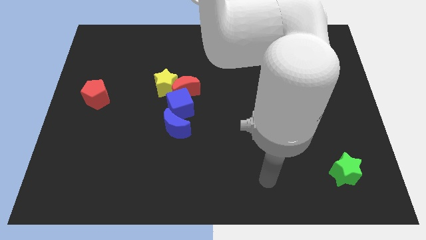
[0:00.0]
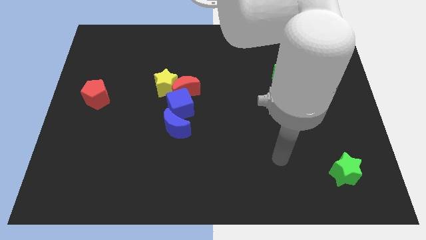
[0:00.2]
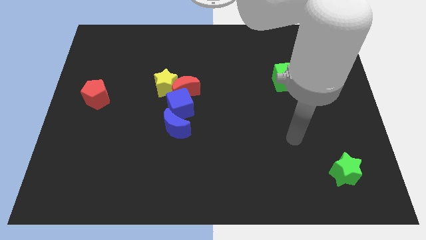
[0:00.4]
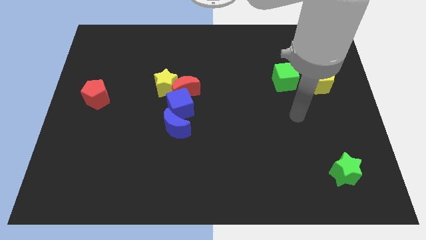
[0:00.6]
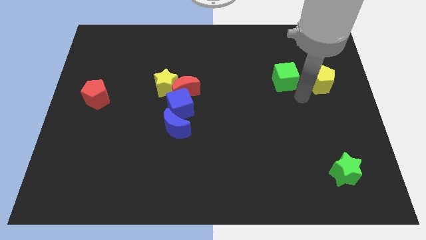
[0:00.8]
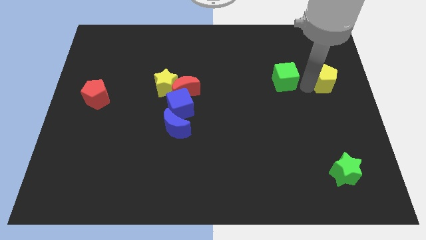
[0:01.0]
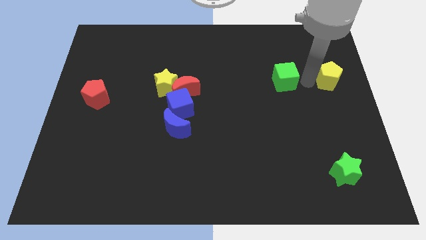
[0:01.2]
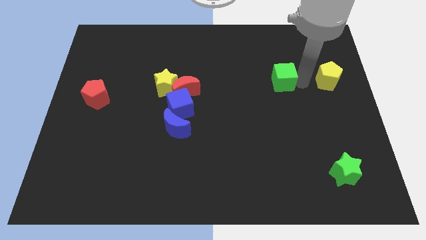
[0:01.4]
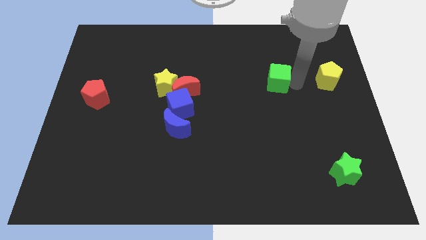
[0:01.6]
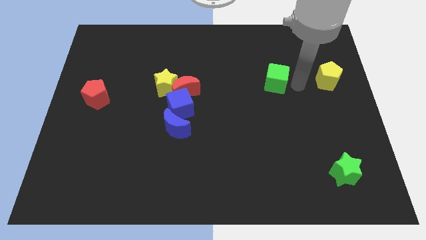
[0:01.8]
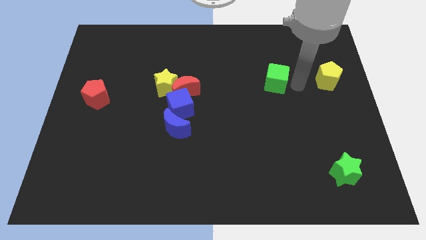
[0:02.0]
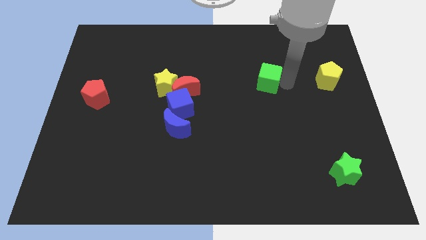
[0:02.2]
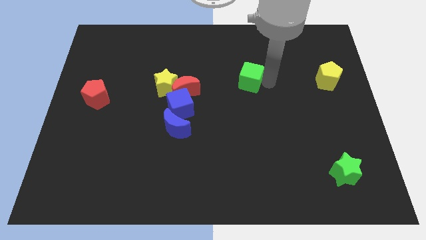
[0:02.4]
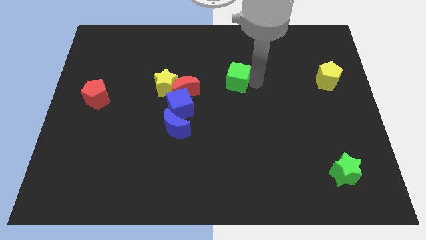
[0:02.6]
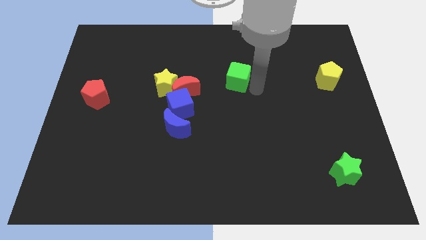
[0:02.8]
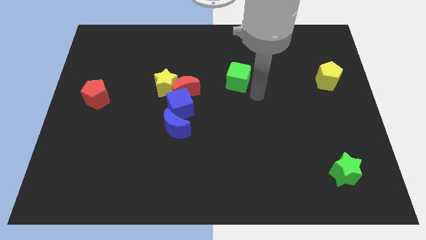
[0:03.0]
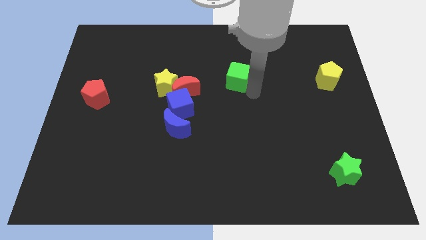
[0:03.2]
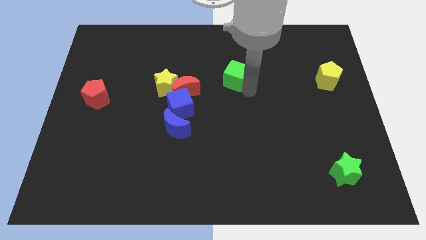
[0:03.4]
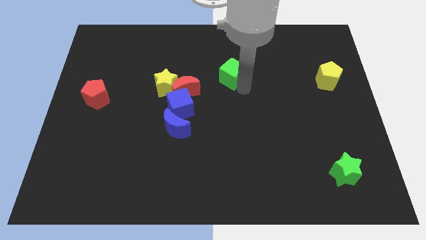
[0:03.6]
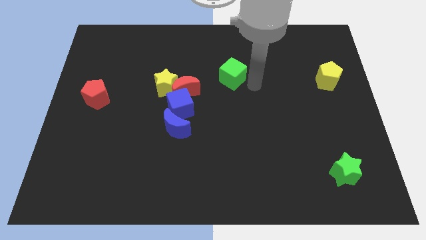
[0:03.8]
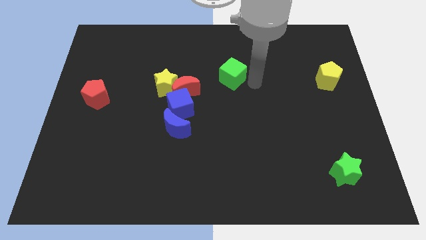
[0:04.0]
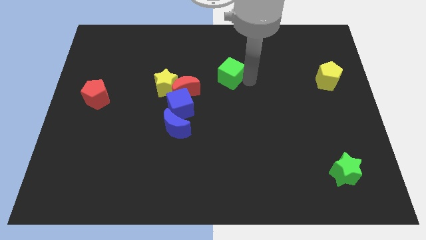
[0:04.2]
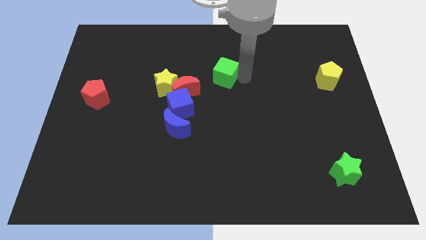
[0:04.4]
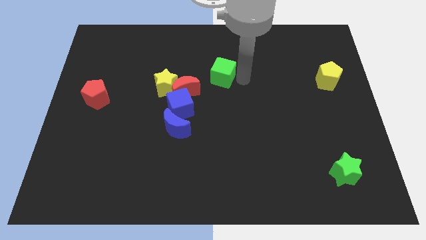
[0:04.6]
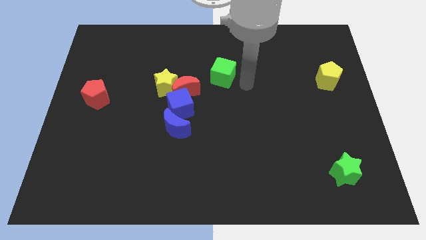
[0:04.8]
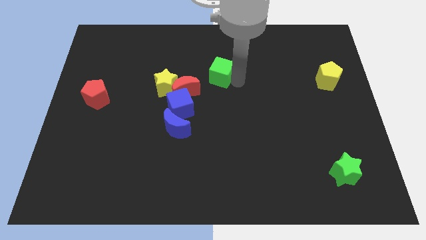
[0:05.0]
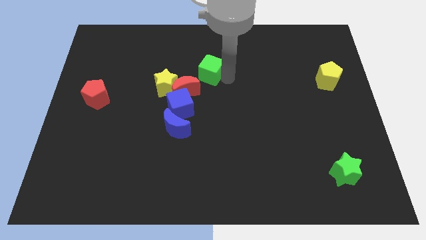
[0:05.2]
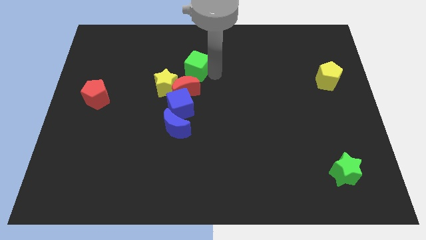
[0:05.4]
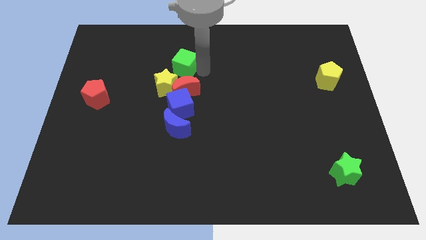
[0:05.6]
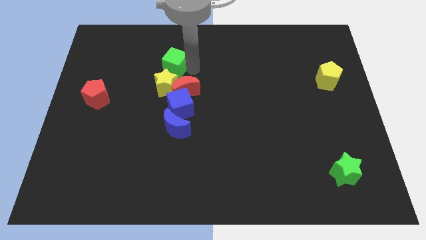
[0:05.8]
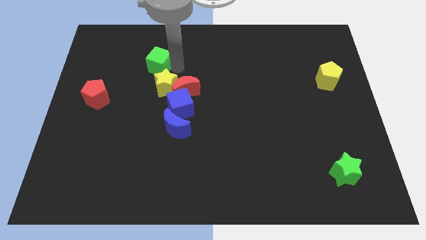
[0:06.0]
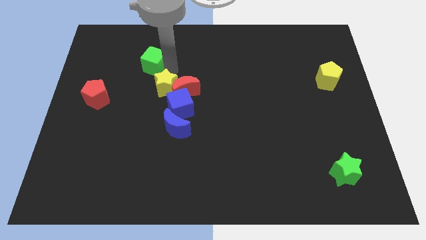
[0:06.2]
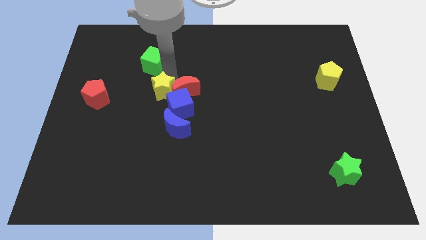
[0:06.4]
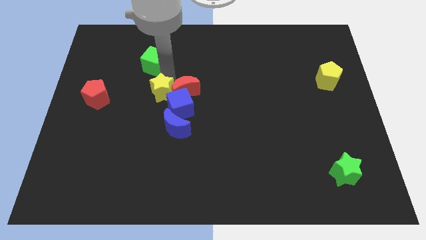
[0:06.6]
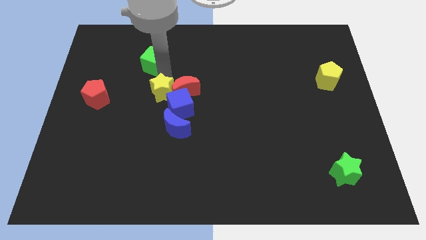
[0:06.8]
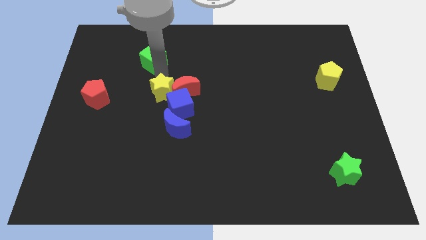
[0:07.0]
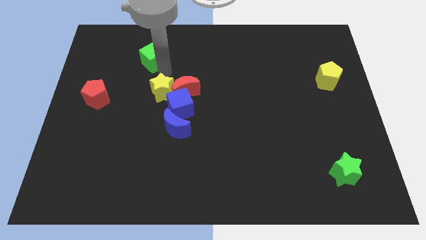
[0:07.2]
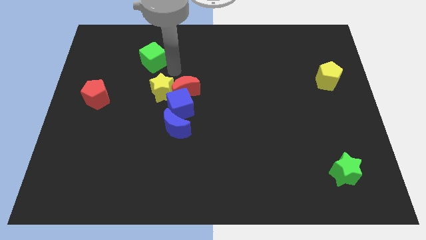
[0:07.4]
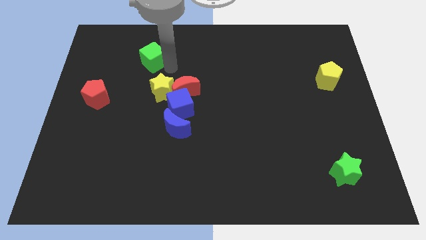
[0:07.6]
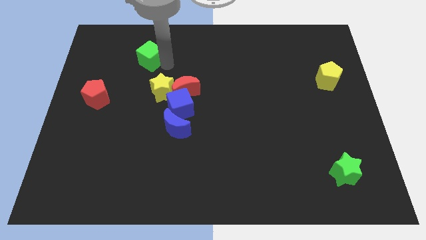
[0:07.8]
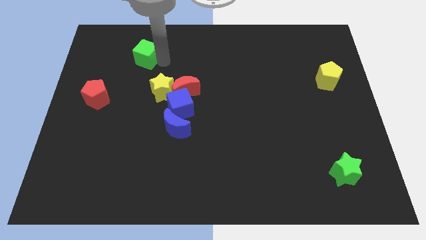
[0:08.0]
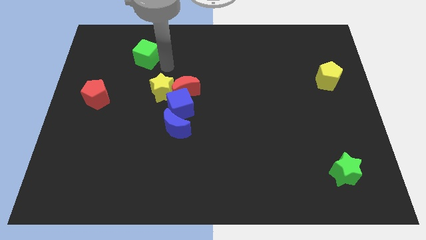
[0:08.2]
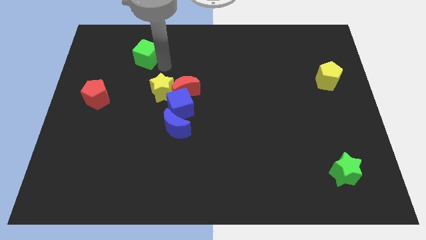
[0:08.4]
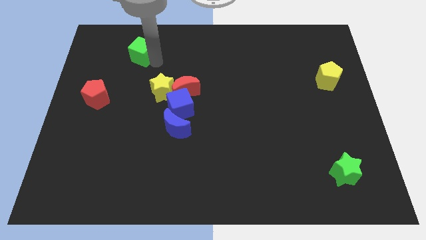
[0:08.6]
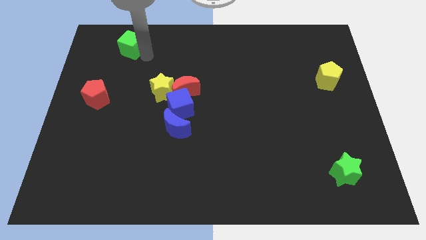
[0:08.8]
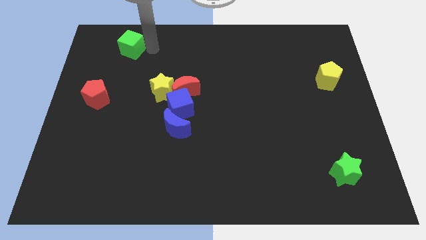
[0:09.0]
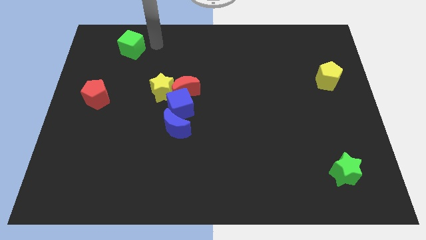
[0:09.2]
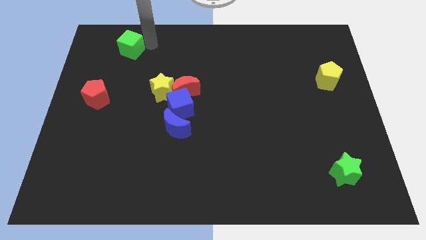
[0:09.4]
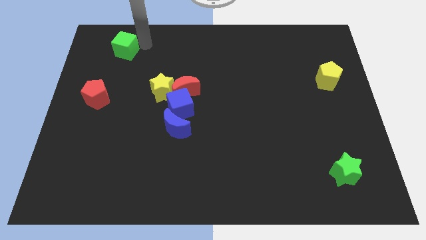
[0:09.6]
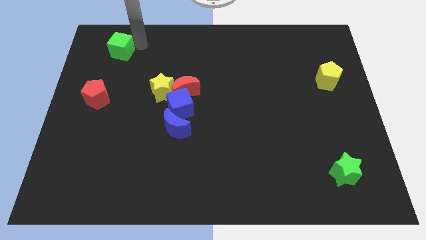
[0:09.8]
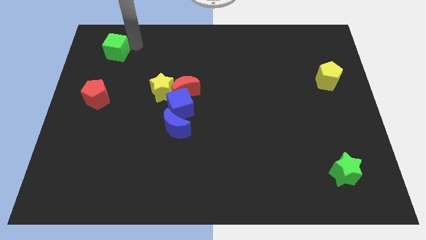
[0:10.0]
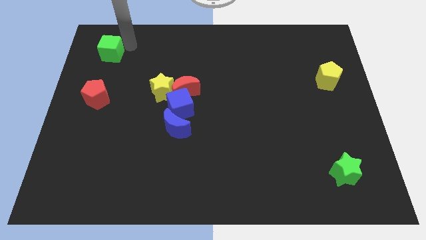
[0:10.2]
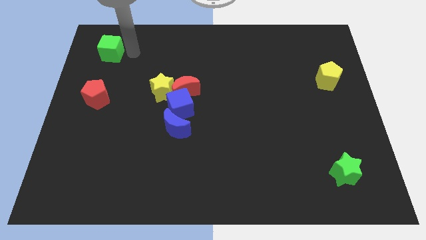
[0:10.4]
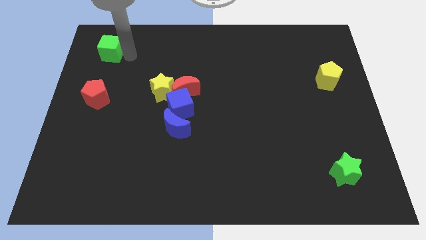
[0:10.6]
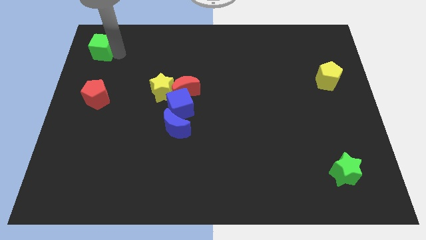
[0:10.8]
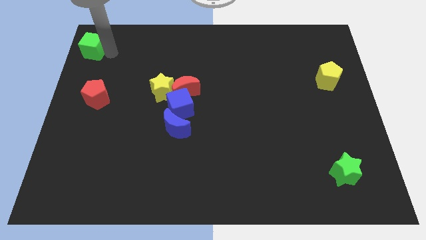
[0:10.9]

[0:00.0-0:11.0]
put the green cube to the upper left corner

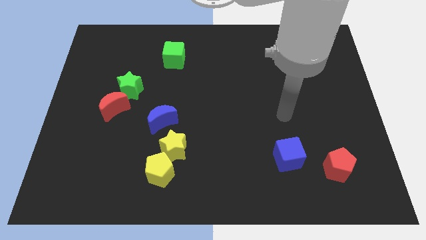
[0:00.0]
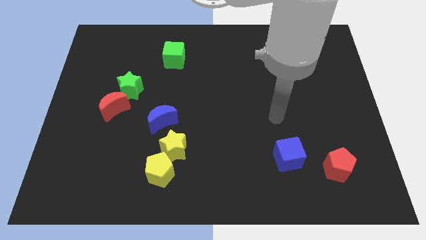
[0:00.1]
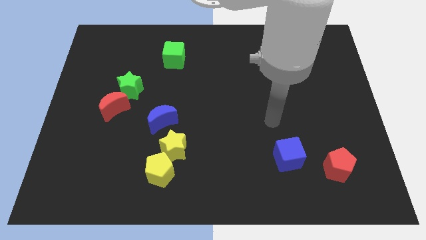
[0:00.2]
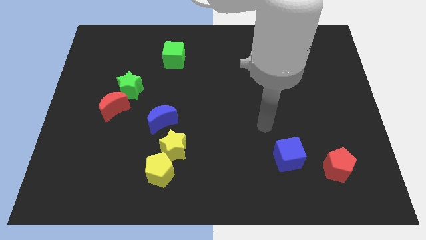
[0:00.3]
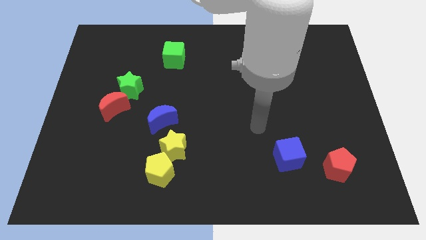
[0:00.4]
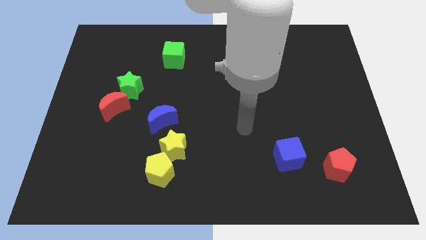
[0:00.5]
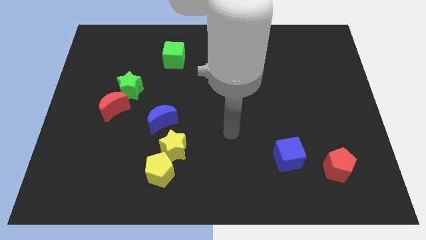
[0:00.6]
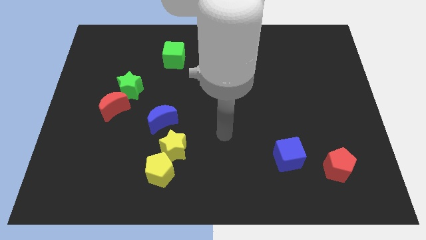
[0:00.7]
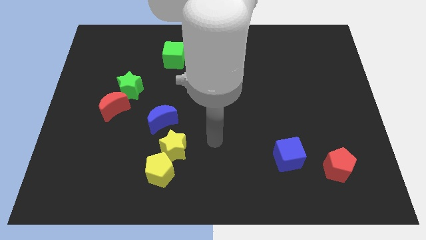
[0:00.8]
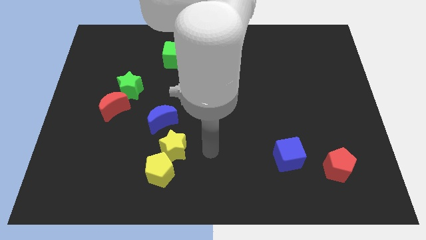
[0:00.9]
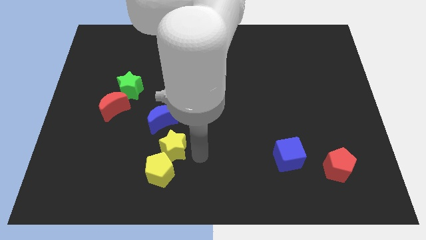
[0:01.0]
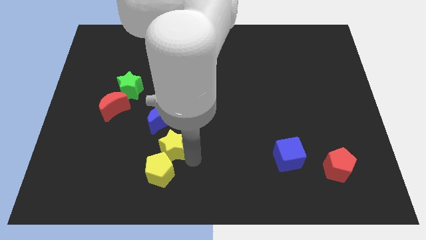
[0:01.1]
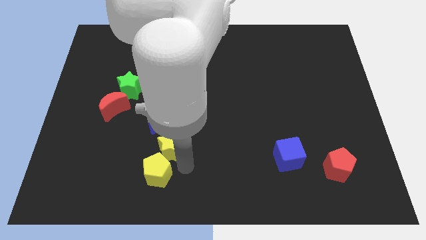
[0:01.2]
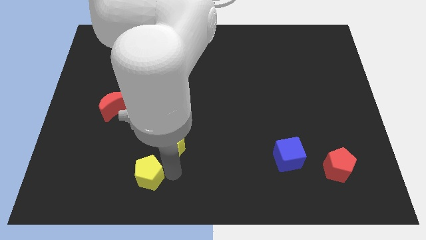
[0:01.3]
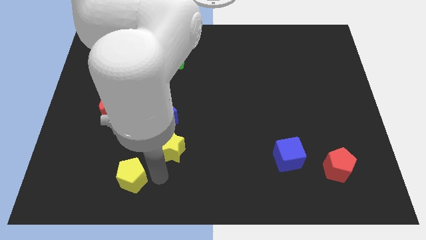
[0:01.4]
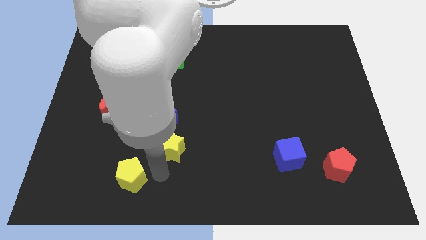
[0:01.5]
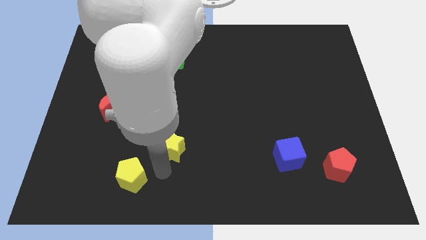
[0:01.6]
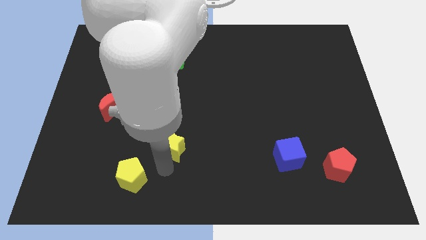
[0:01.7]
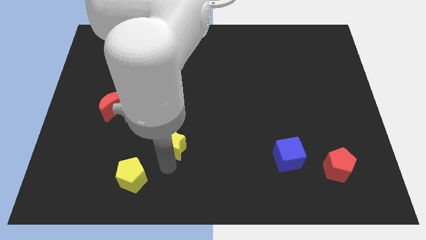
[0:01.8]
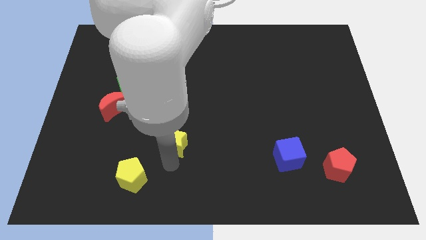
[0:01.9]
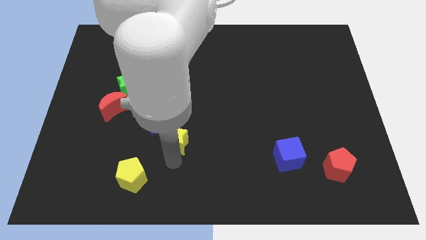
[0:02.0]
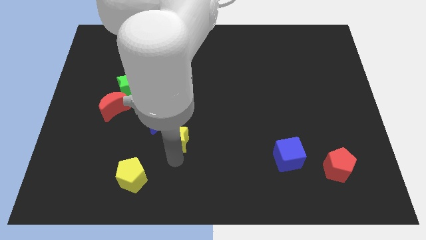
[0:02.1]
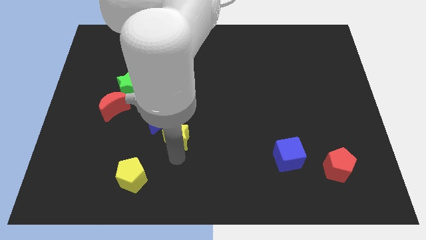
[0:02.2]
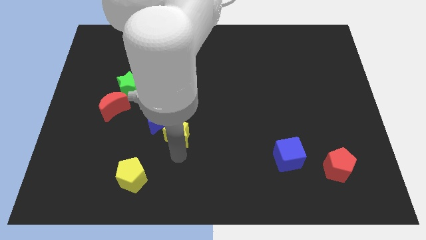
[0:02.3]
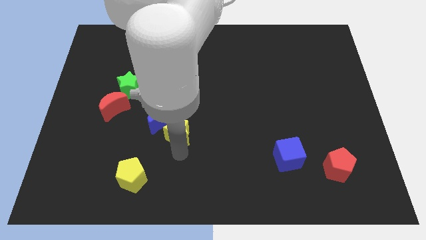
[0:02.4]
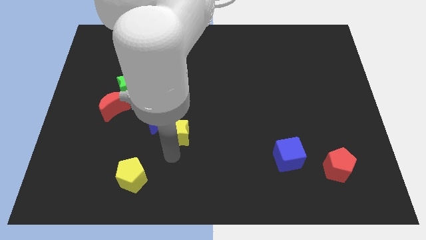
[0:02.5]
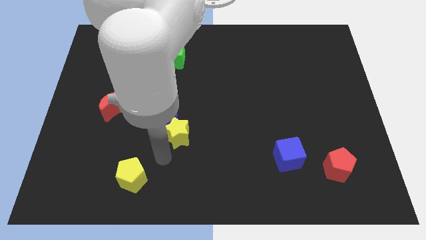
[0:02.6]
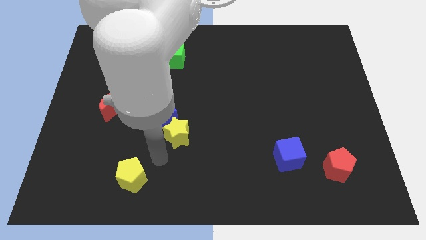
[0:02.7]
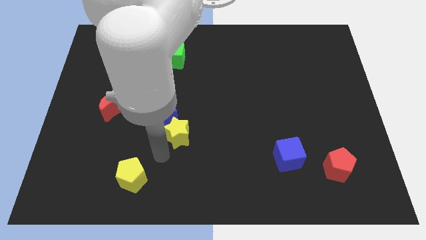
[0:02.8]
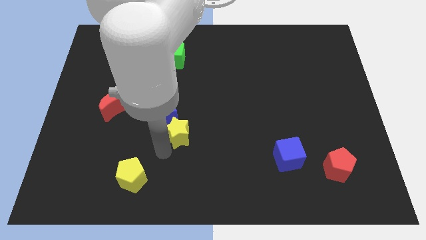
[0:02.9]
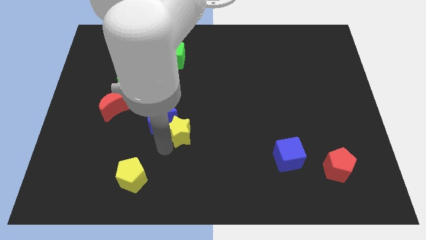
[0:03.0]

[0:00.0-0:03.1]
put the yellow star to the center
